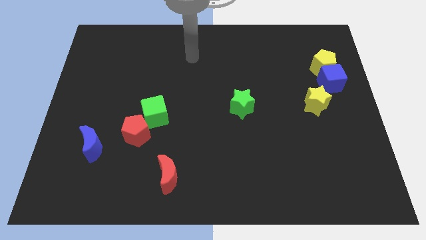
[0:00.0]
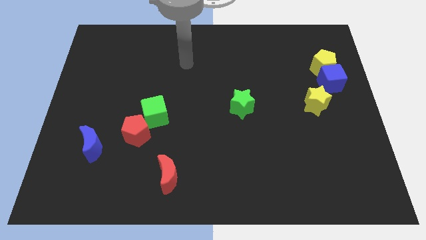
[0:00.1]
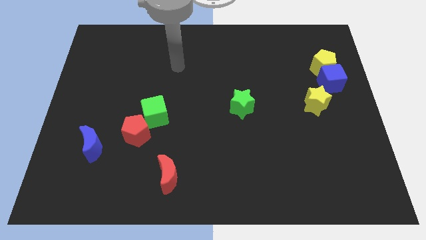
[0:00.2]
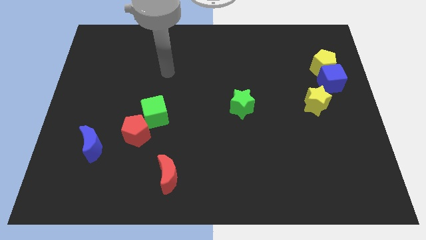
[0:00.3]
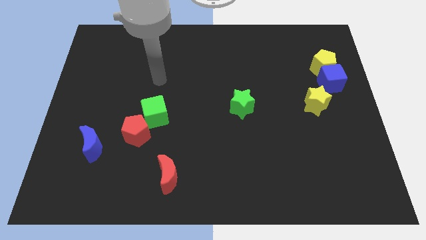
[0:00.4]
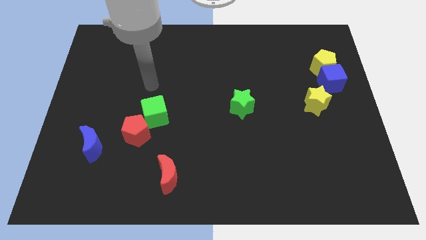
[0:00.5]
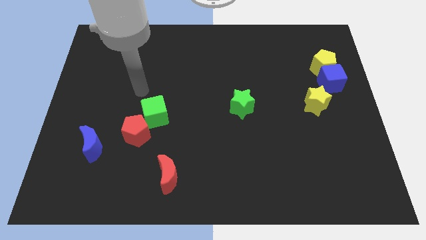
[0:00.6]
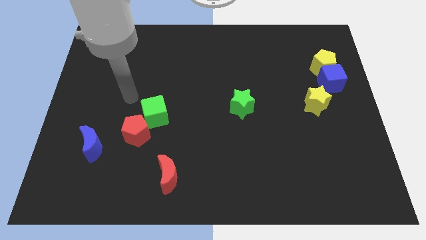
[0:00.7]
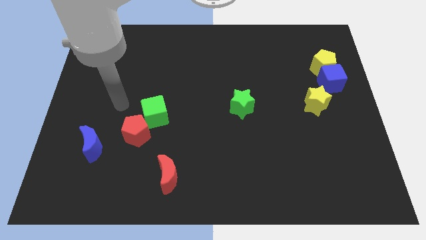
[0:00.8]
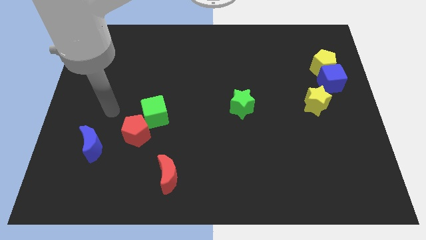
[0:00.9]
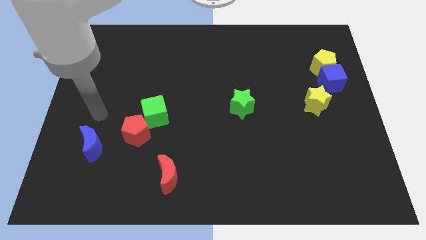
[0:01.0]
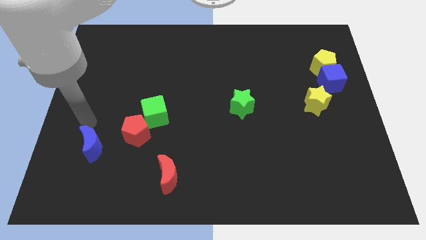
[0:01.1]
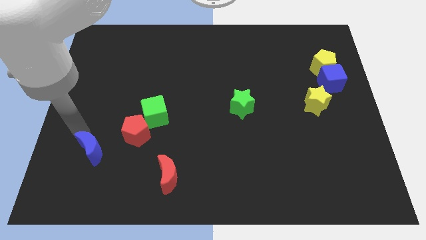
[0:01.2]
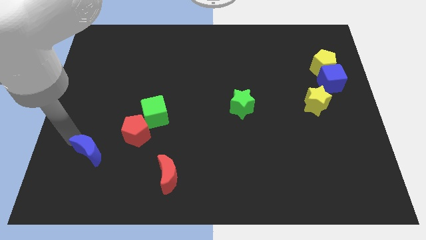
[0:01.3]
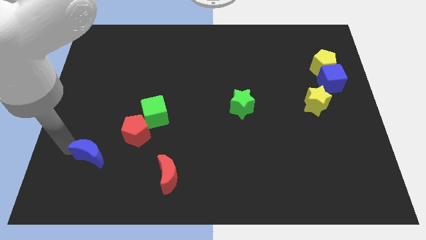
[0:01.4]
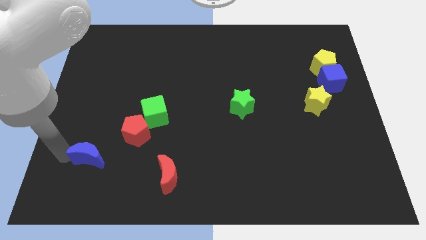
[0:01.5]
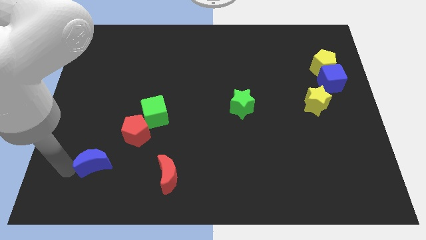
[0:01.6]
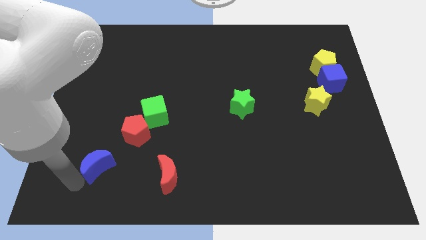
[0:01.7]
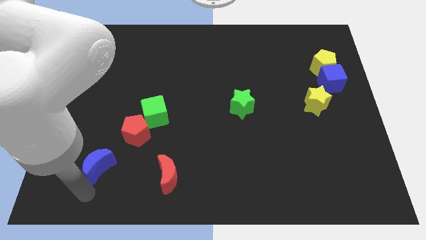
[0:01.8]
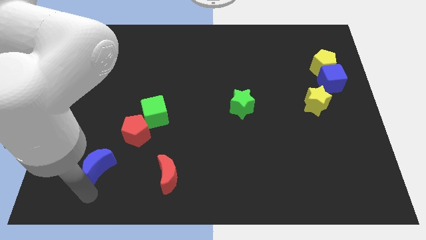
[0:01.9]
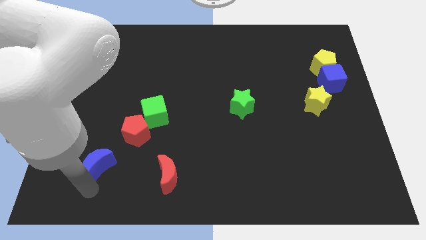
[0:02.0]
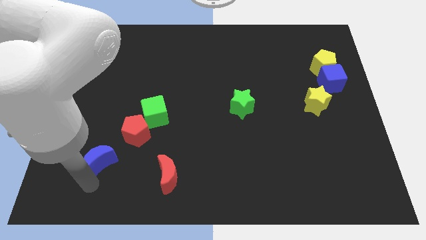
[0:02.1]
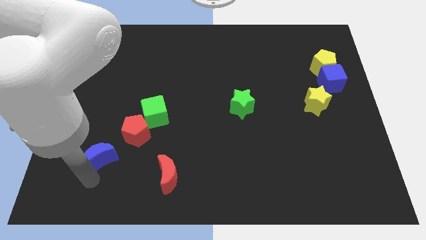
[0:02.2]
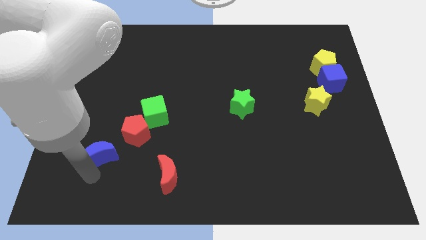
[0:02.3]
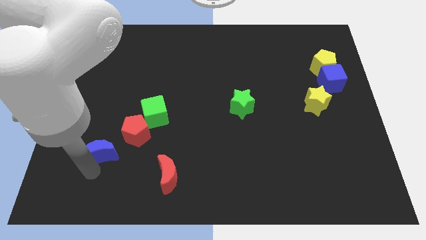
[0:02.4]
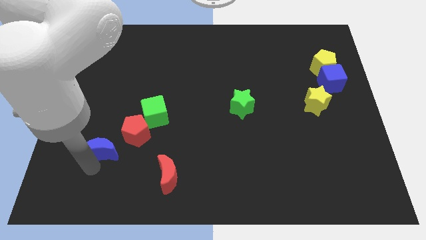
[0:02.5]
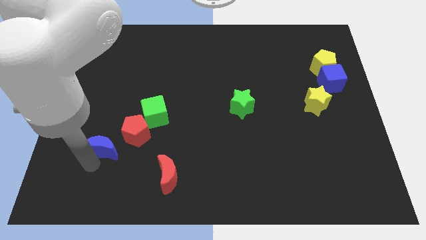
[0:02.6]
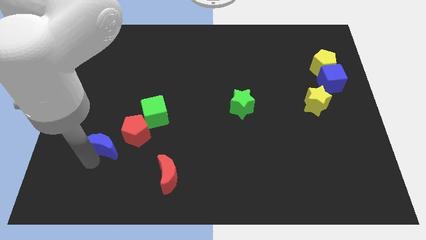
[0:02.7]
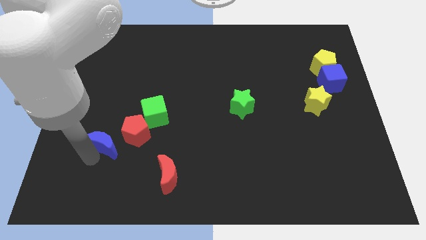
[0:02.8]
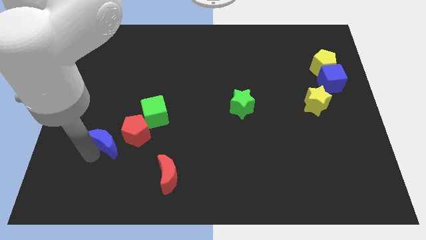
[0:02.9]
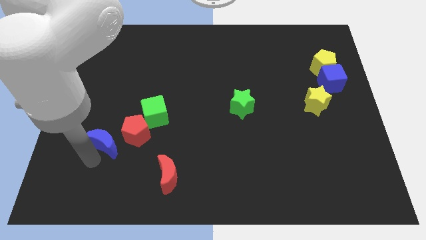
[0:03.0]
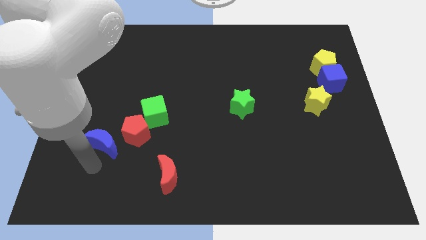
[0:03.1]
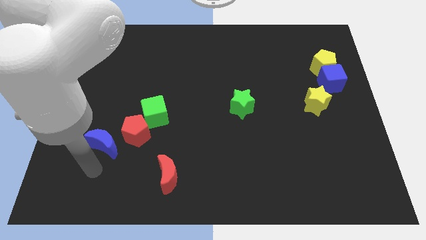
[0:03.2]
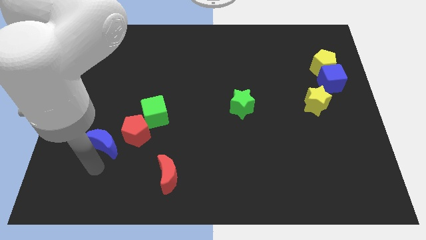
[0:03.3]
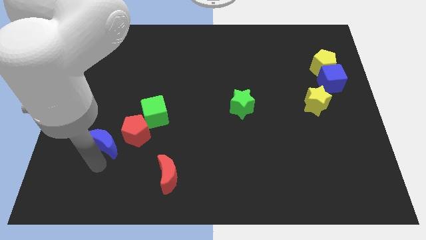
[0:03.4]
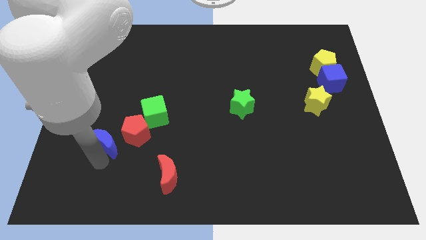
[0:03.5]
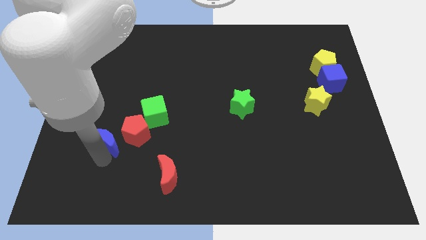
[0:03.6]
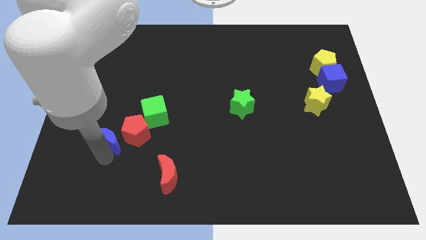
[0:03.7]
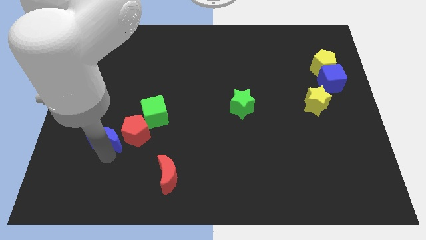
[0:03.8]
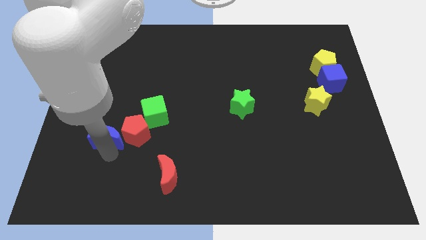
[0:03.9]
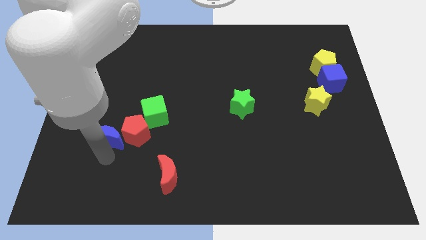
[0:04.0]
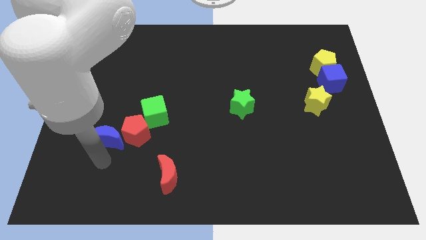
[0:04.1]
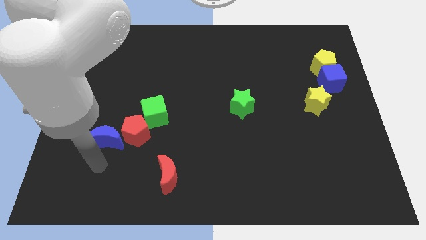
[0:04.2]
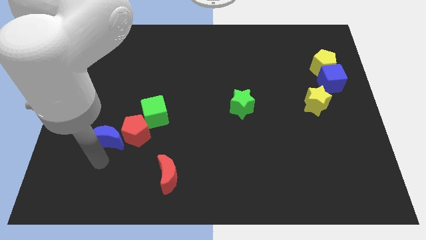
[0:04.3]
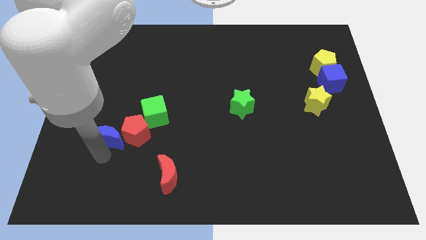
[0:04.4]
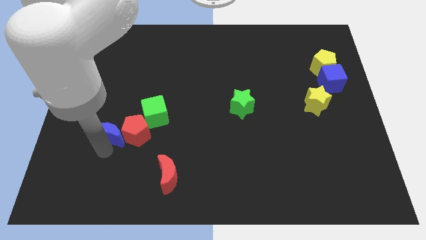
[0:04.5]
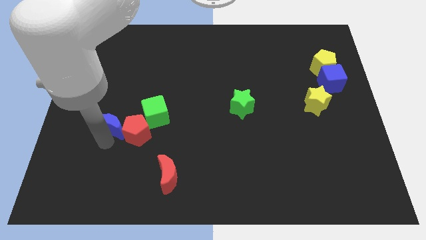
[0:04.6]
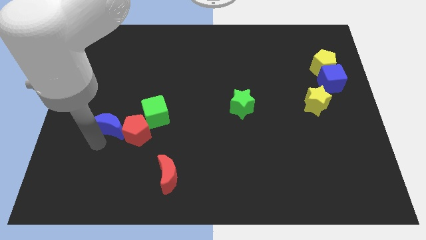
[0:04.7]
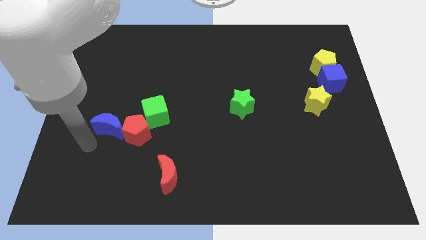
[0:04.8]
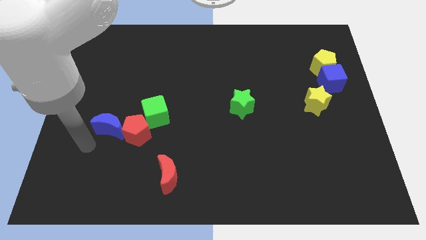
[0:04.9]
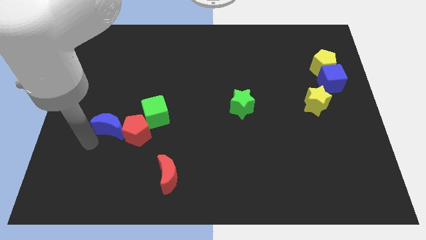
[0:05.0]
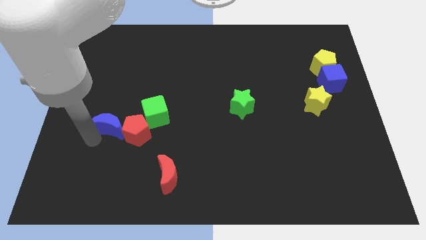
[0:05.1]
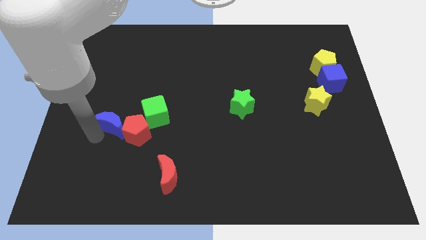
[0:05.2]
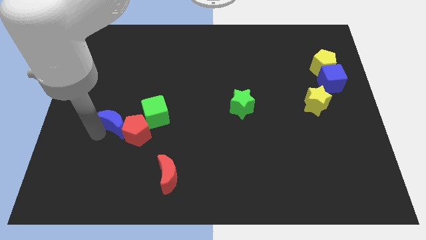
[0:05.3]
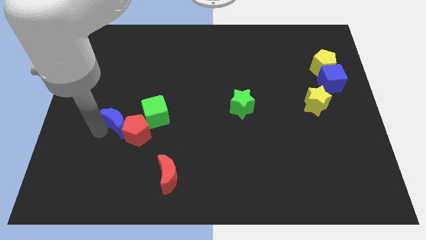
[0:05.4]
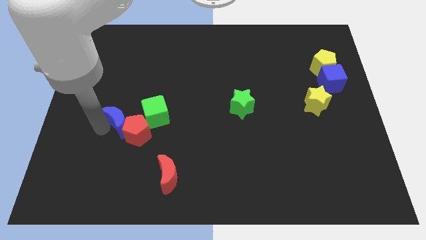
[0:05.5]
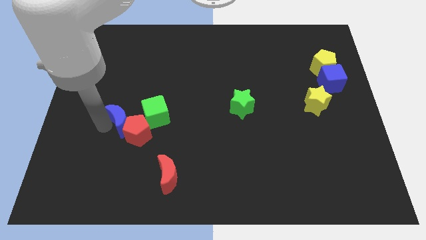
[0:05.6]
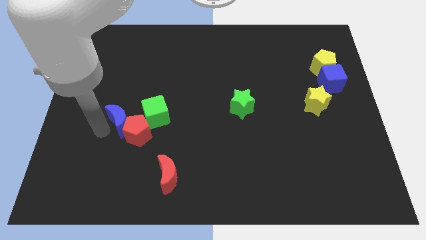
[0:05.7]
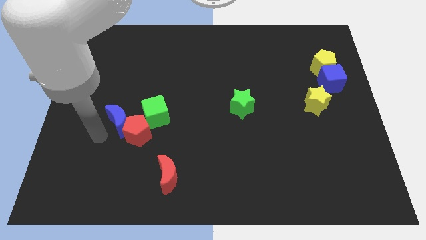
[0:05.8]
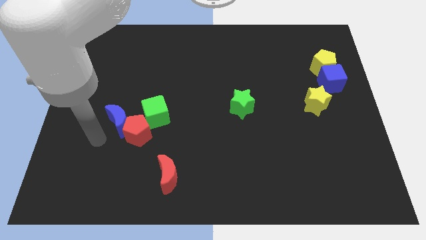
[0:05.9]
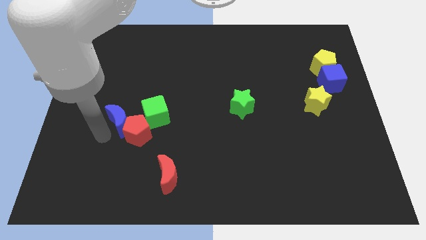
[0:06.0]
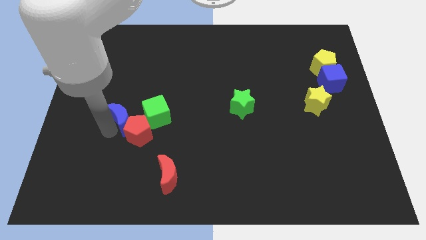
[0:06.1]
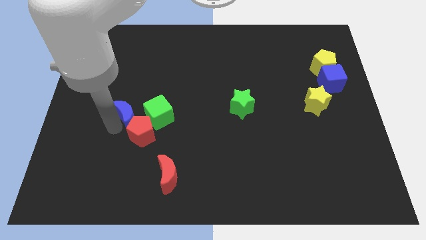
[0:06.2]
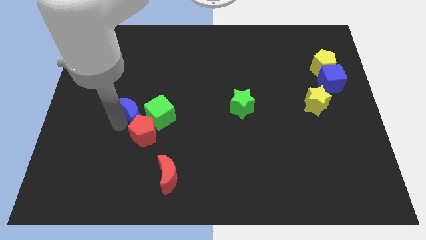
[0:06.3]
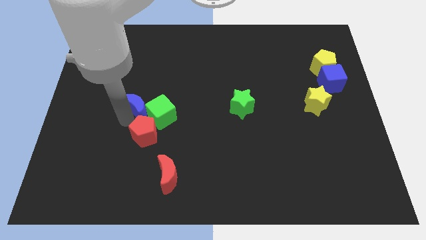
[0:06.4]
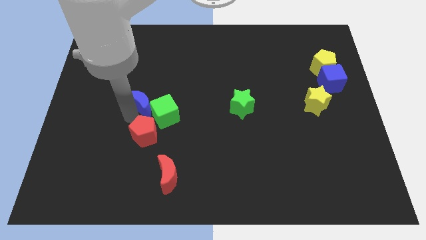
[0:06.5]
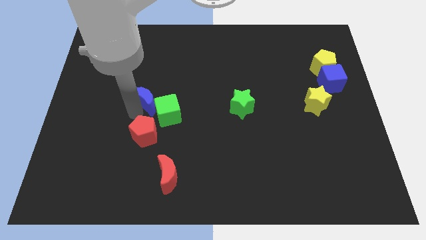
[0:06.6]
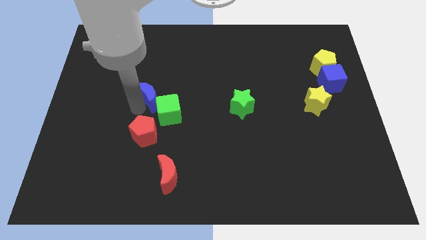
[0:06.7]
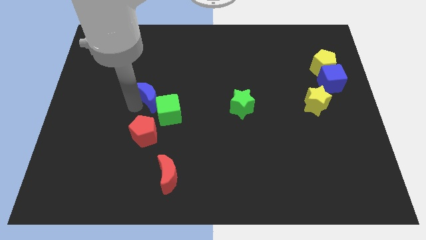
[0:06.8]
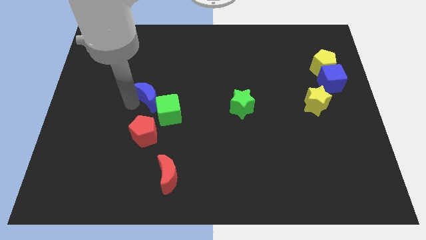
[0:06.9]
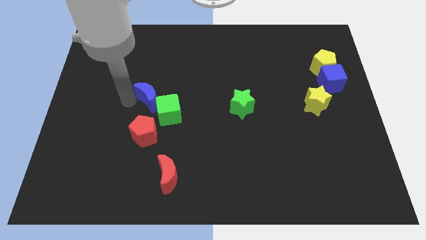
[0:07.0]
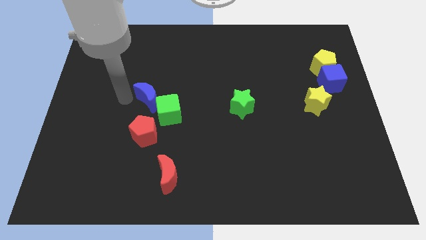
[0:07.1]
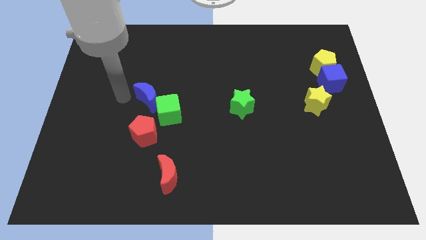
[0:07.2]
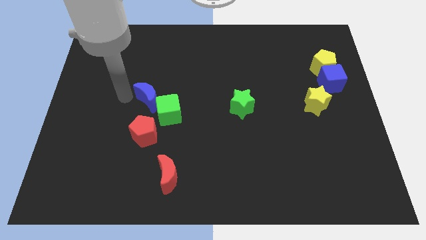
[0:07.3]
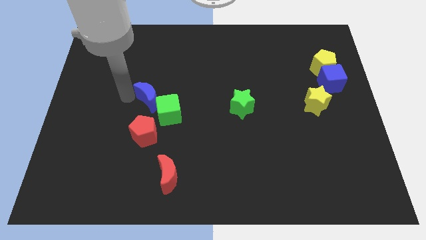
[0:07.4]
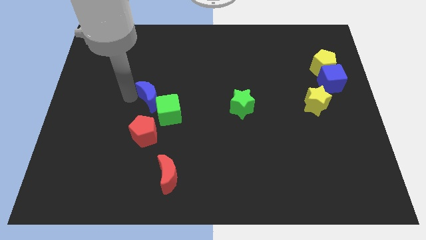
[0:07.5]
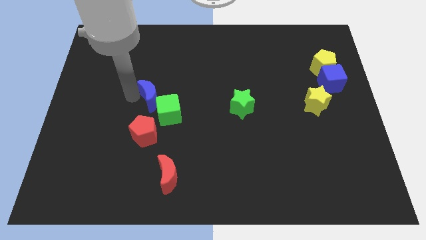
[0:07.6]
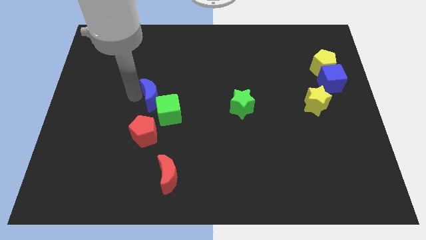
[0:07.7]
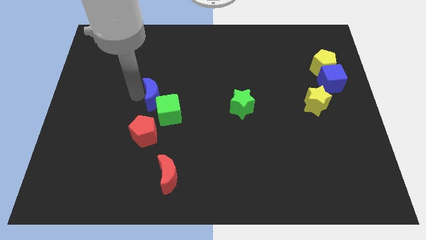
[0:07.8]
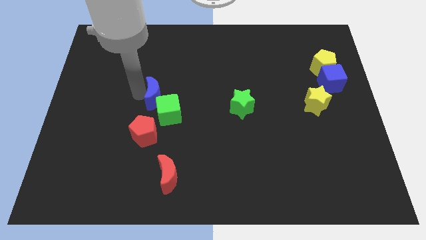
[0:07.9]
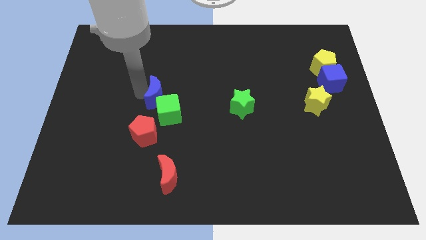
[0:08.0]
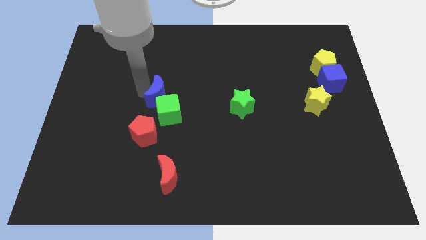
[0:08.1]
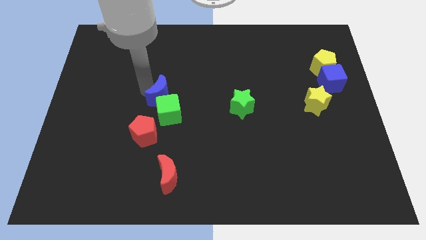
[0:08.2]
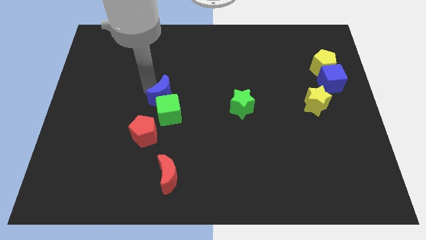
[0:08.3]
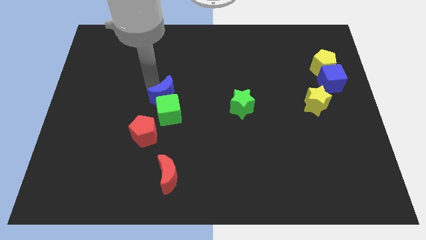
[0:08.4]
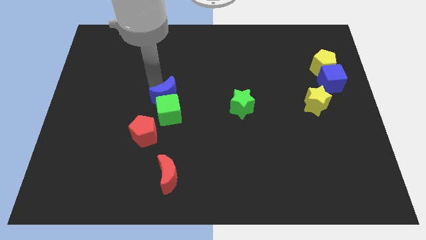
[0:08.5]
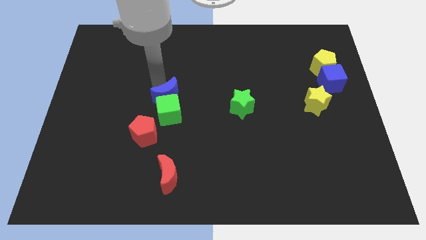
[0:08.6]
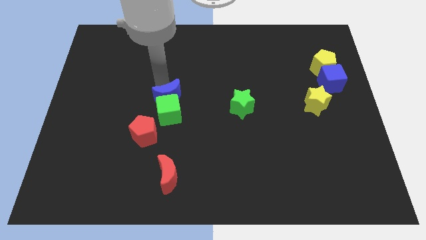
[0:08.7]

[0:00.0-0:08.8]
put the blue moon to the top right of the red pentagon
